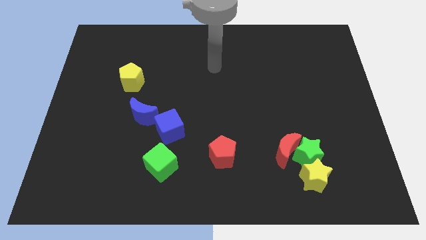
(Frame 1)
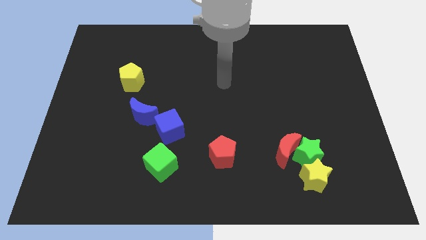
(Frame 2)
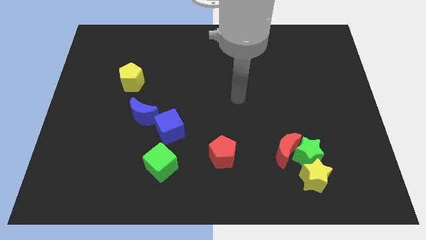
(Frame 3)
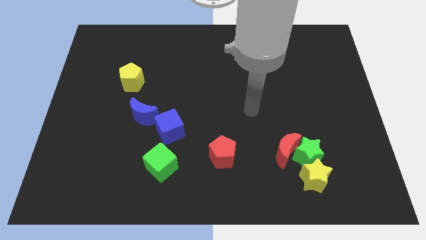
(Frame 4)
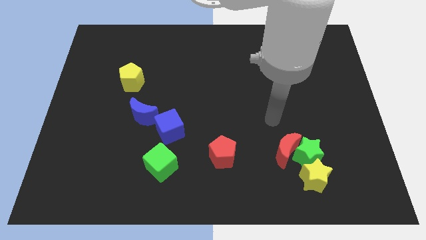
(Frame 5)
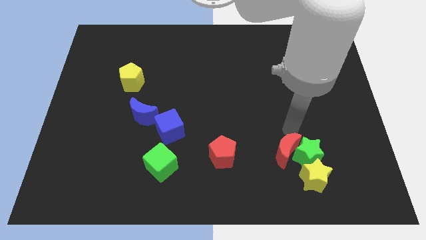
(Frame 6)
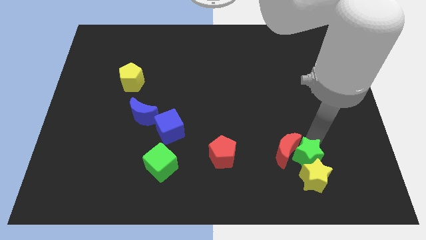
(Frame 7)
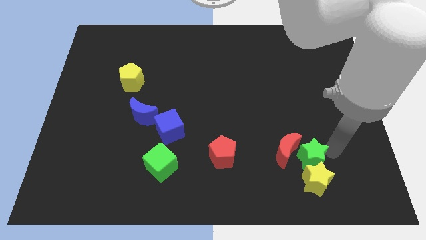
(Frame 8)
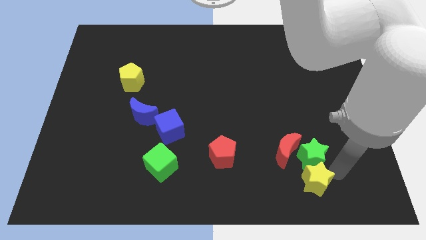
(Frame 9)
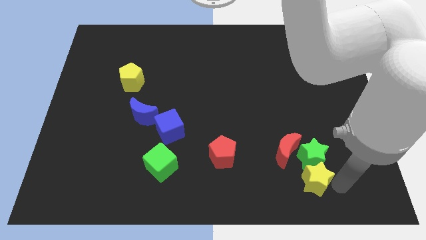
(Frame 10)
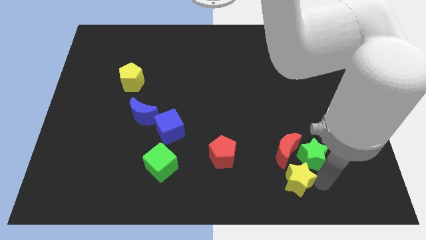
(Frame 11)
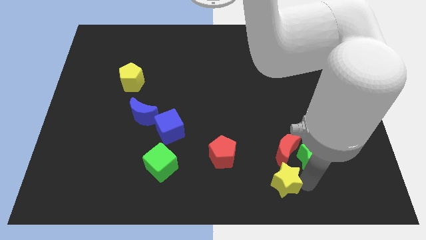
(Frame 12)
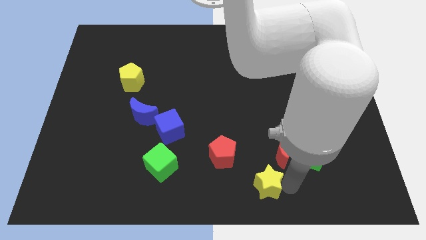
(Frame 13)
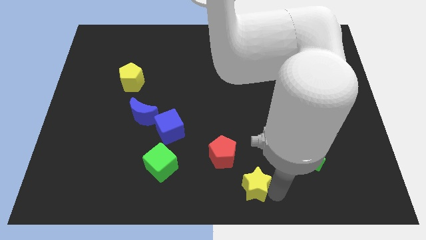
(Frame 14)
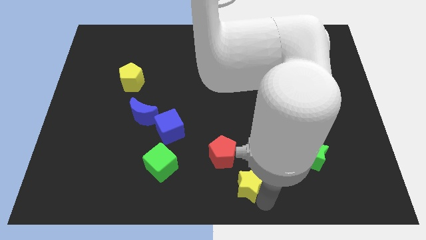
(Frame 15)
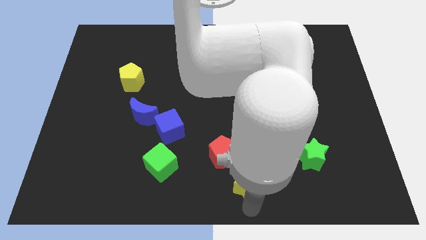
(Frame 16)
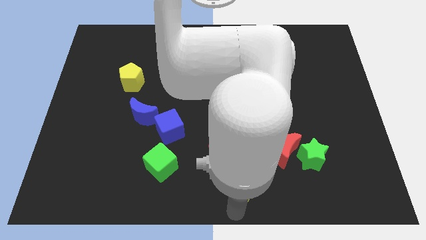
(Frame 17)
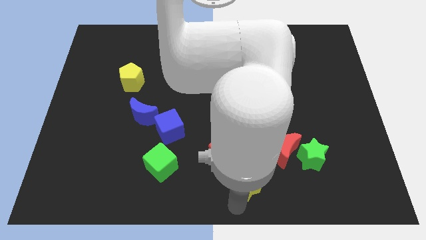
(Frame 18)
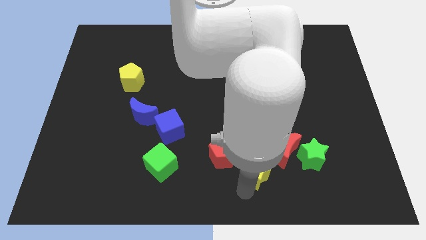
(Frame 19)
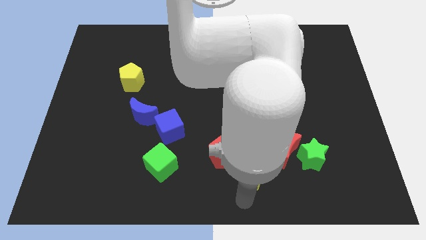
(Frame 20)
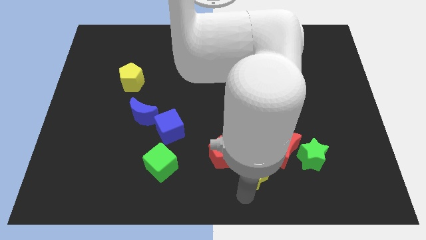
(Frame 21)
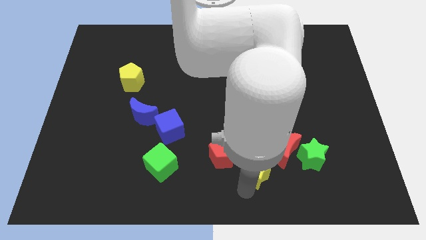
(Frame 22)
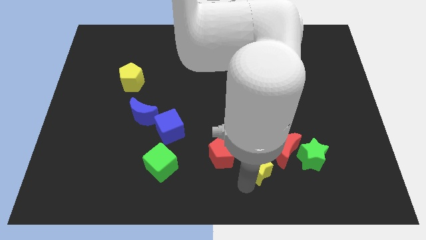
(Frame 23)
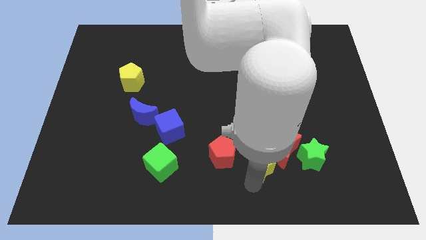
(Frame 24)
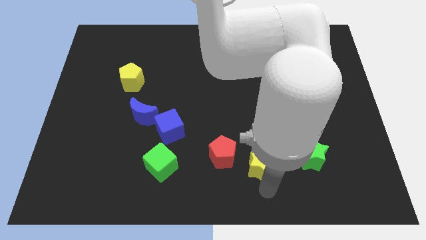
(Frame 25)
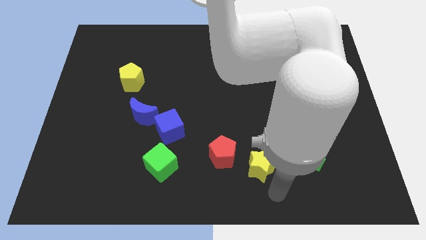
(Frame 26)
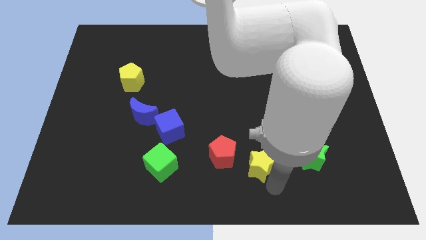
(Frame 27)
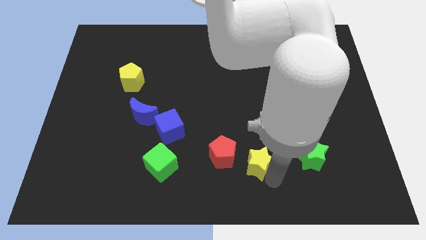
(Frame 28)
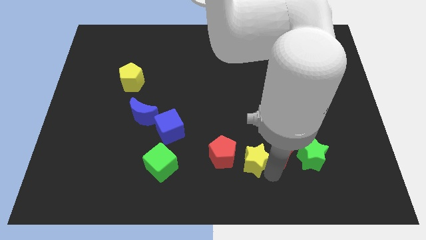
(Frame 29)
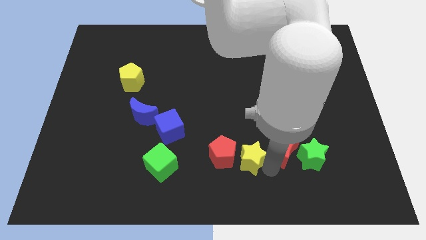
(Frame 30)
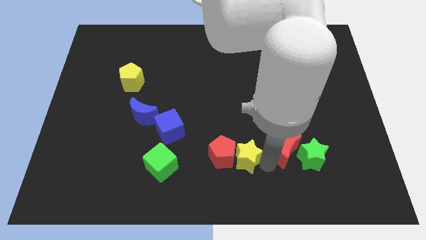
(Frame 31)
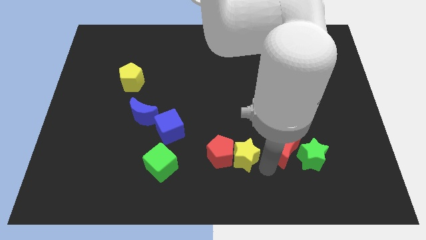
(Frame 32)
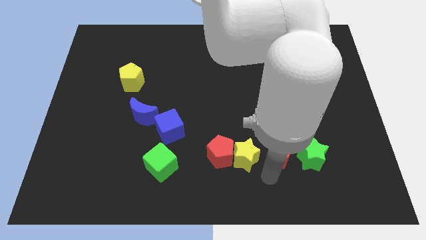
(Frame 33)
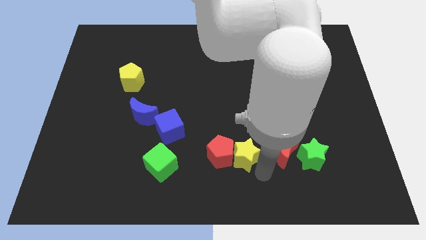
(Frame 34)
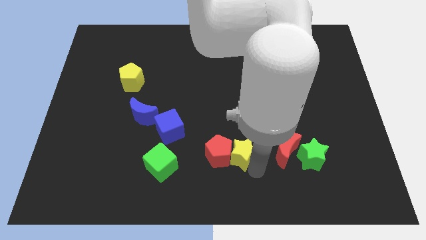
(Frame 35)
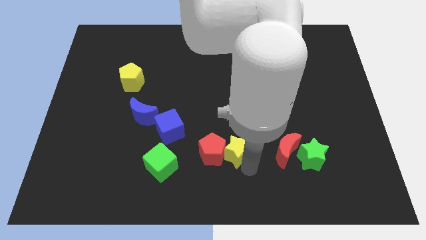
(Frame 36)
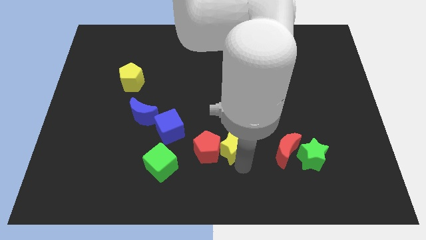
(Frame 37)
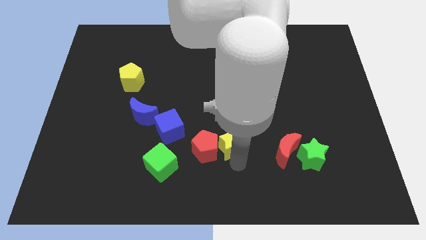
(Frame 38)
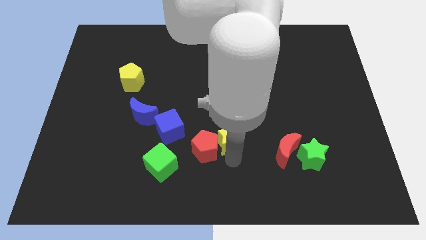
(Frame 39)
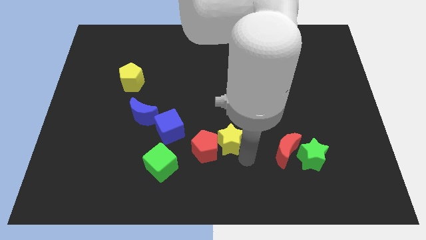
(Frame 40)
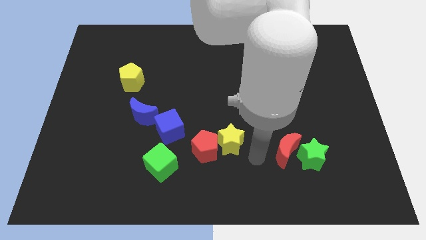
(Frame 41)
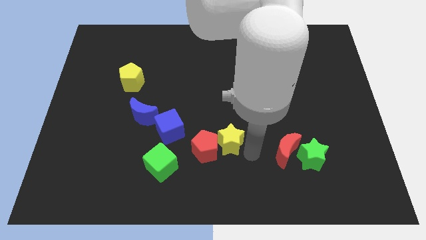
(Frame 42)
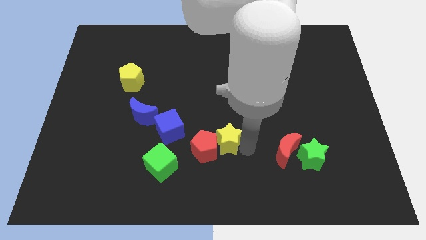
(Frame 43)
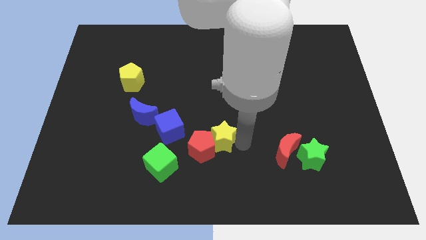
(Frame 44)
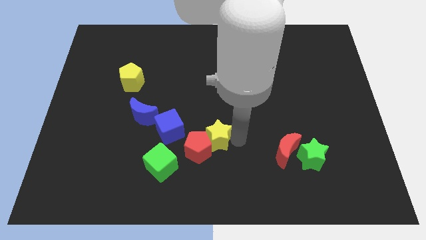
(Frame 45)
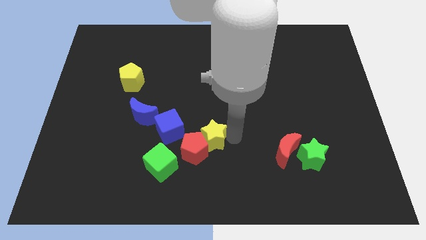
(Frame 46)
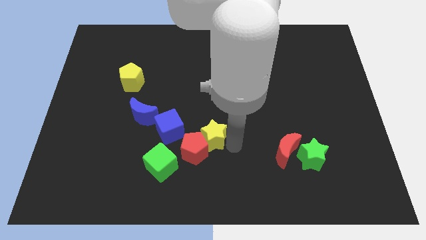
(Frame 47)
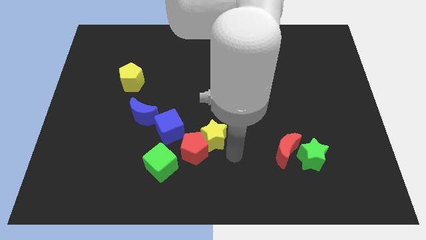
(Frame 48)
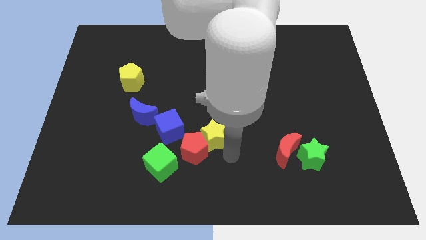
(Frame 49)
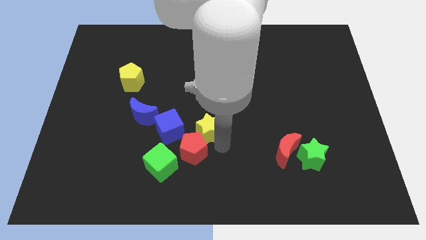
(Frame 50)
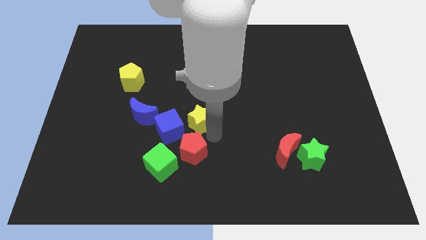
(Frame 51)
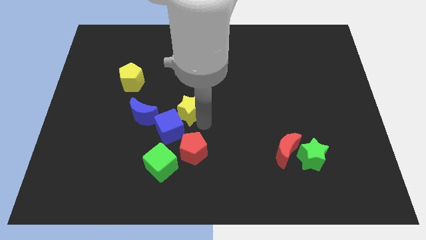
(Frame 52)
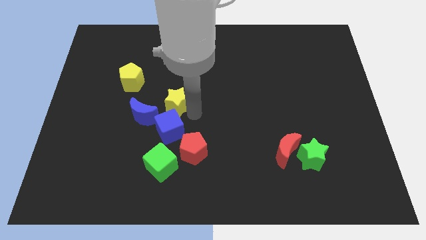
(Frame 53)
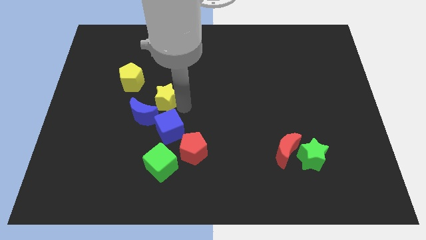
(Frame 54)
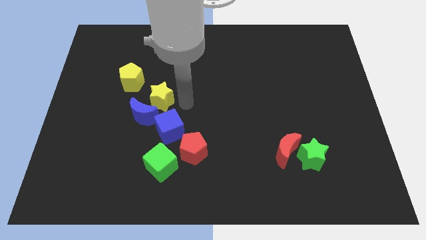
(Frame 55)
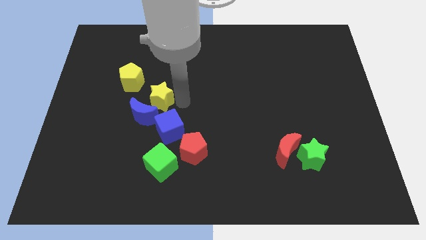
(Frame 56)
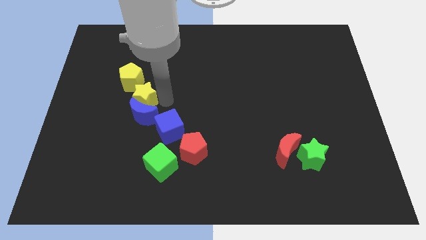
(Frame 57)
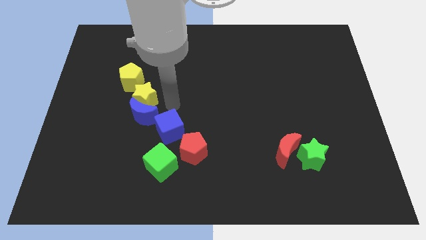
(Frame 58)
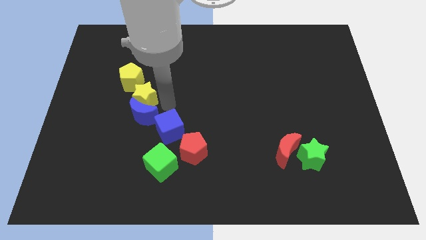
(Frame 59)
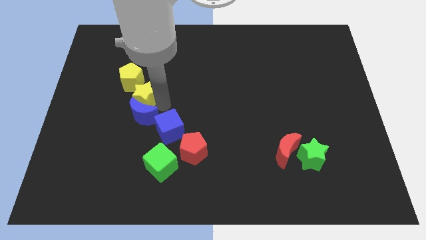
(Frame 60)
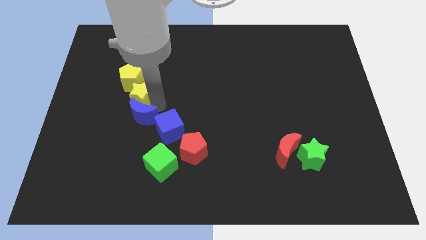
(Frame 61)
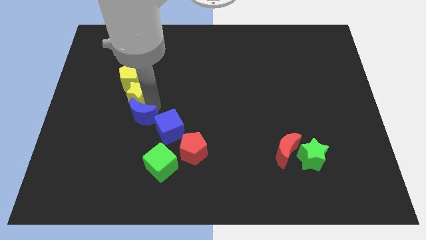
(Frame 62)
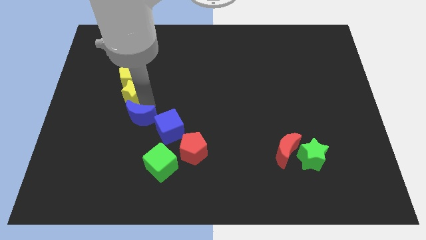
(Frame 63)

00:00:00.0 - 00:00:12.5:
push the yellow star to the bottom left of the yellow pentagon

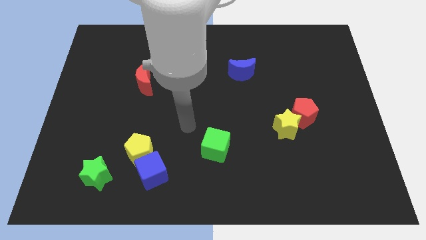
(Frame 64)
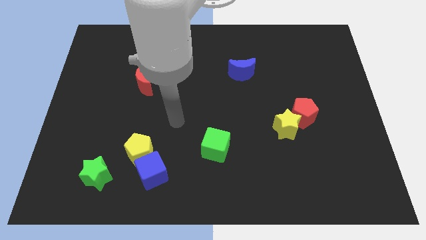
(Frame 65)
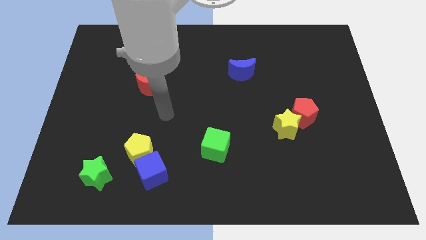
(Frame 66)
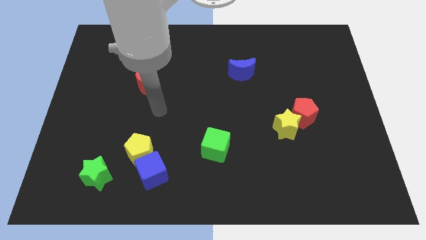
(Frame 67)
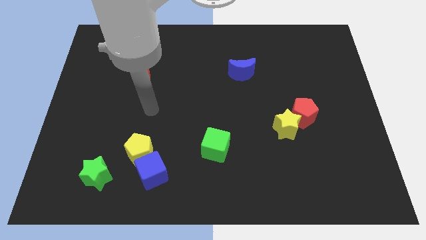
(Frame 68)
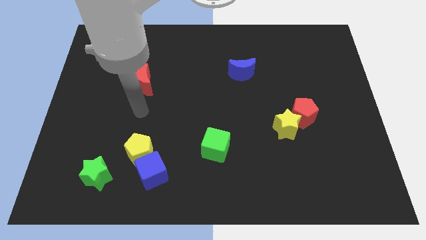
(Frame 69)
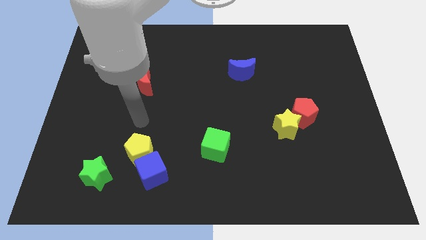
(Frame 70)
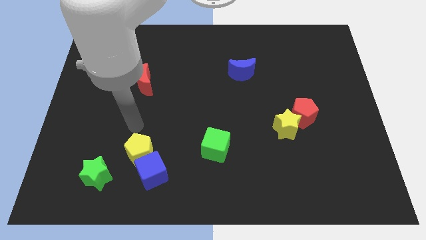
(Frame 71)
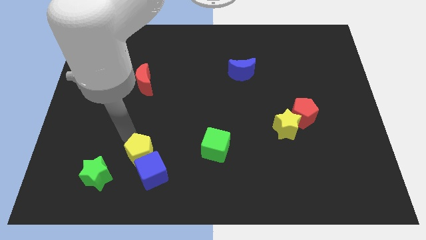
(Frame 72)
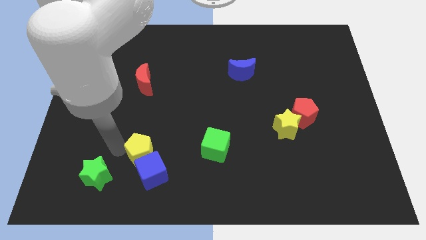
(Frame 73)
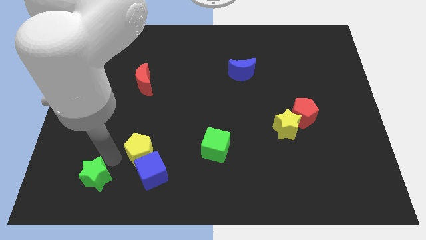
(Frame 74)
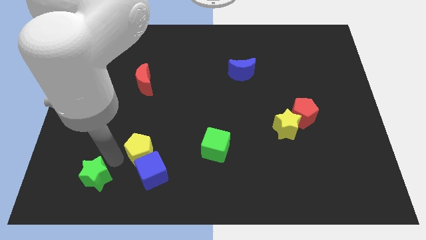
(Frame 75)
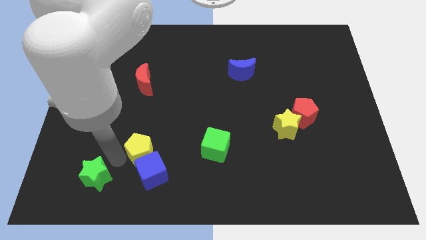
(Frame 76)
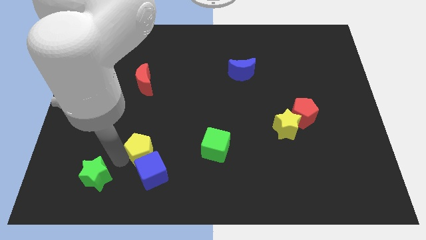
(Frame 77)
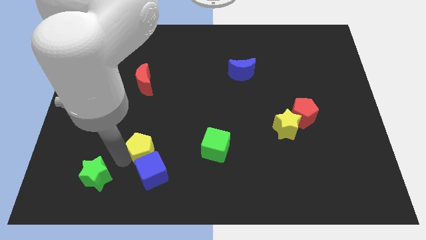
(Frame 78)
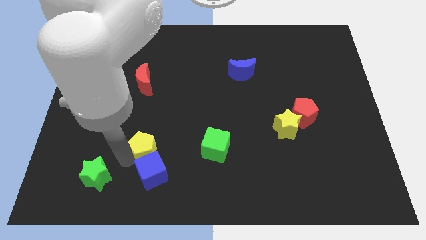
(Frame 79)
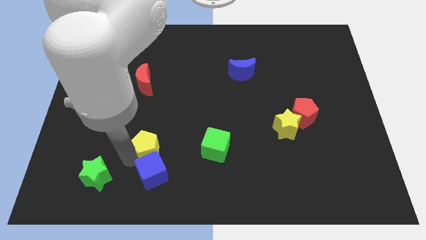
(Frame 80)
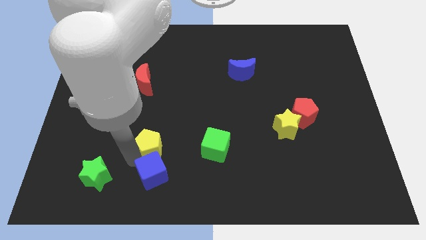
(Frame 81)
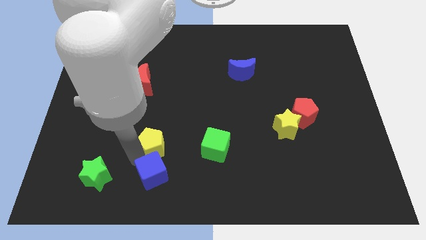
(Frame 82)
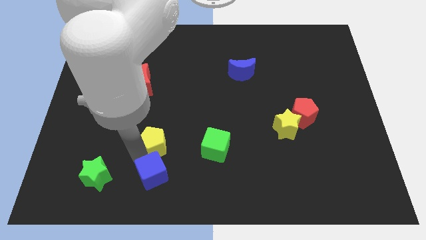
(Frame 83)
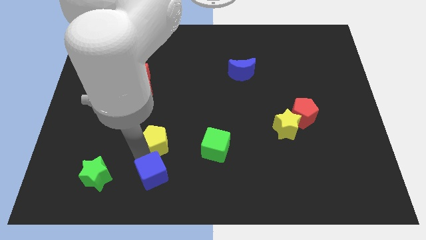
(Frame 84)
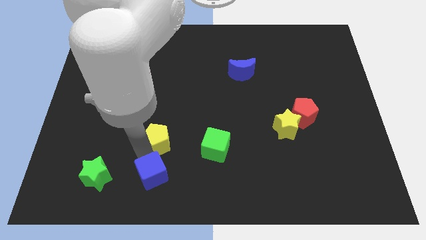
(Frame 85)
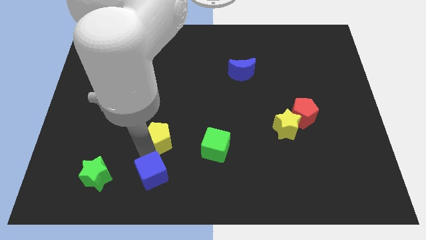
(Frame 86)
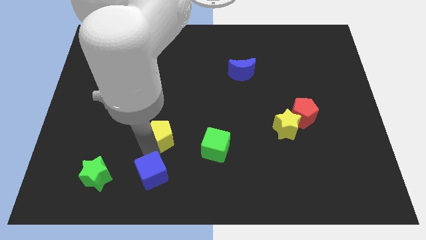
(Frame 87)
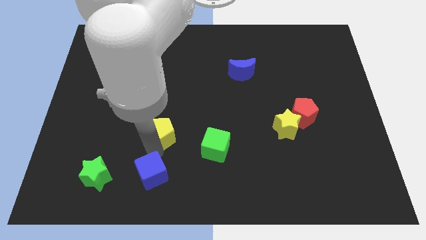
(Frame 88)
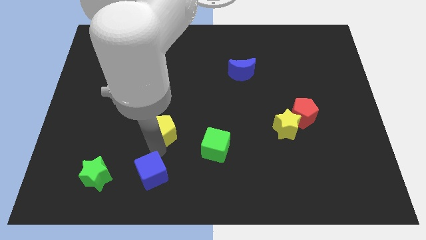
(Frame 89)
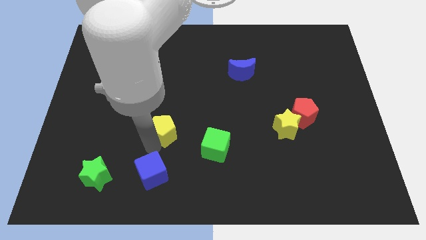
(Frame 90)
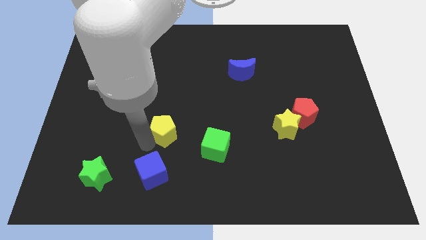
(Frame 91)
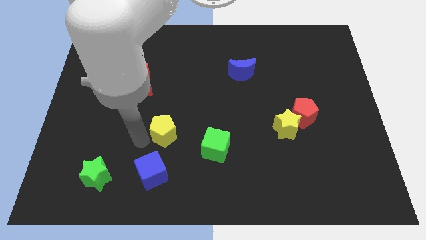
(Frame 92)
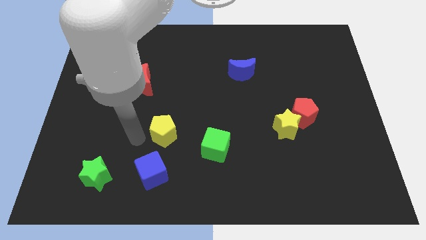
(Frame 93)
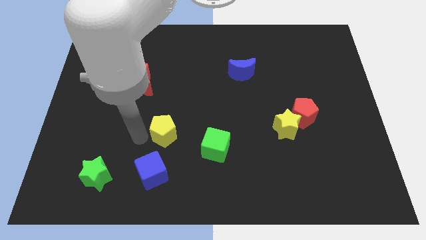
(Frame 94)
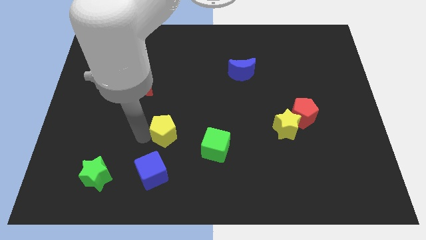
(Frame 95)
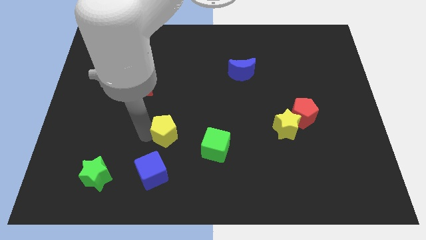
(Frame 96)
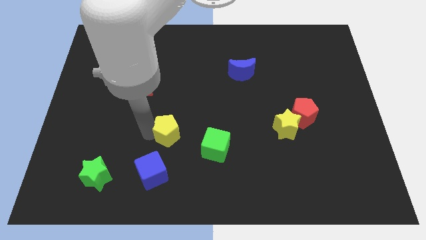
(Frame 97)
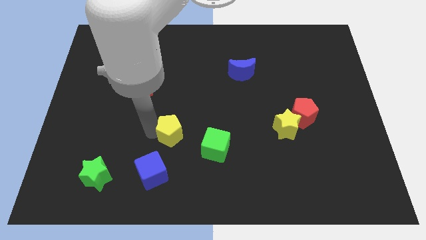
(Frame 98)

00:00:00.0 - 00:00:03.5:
move the yellow pentagon diagonally up and to the left of the green cube
